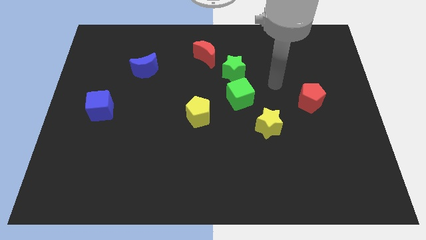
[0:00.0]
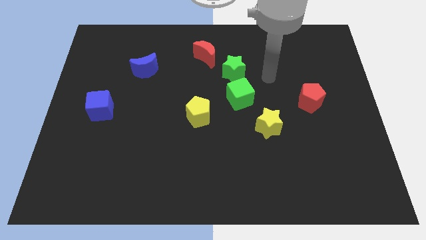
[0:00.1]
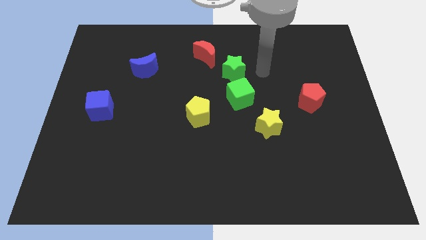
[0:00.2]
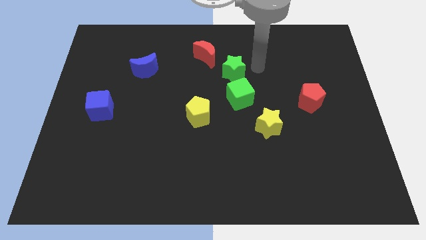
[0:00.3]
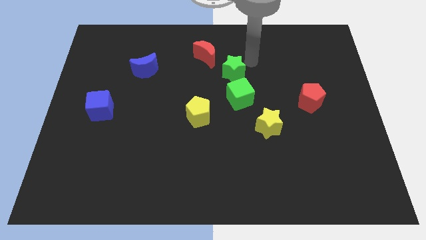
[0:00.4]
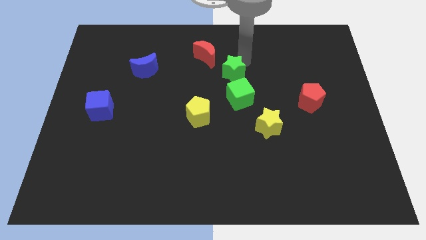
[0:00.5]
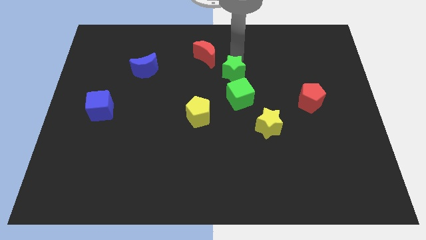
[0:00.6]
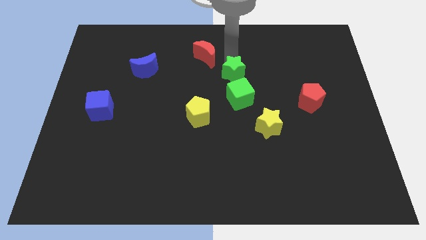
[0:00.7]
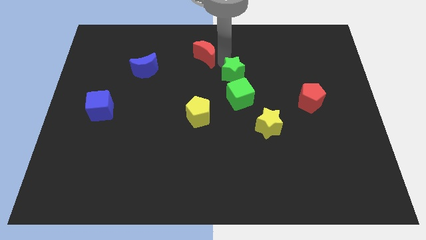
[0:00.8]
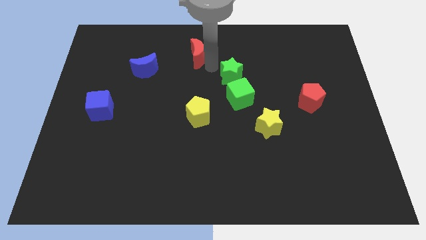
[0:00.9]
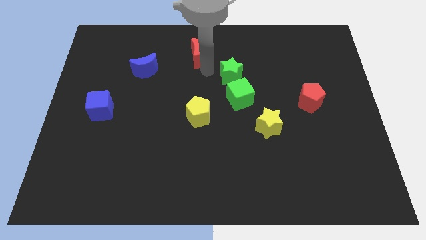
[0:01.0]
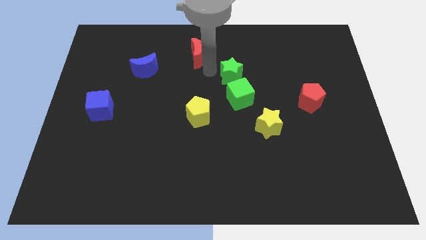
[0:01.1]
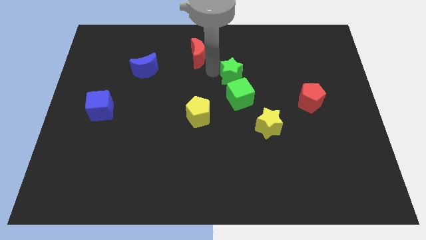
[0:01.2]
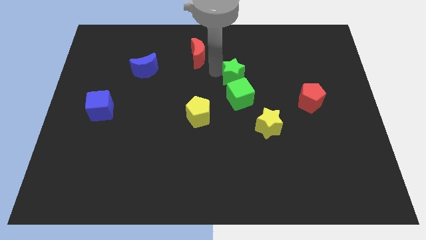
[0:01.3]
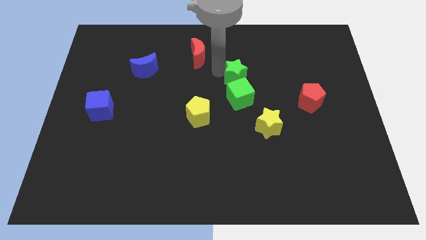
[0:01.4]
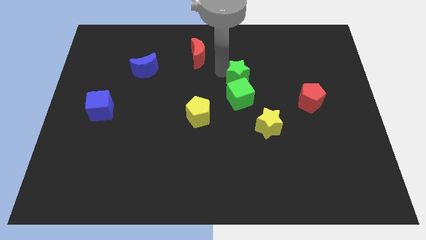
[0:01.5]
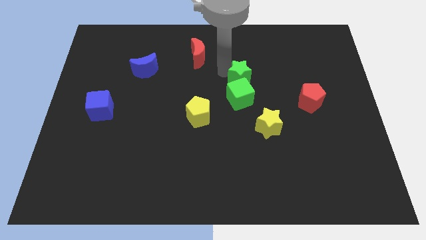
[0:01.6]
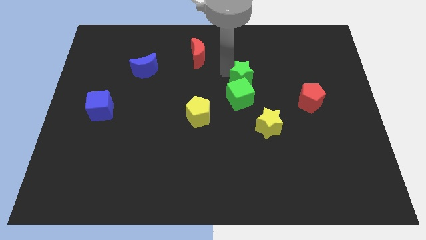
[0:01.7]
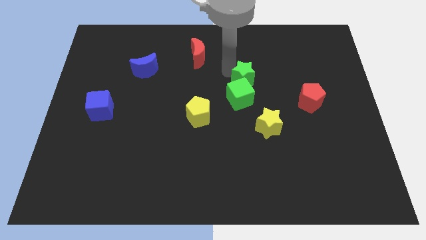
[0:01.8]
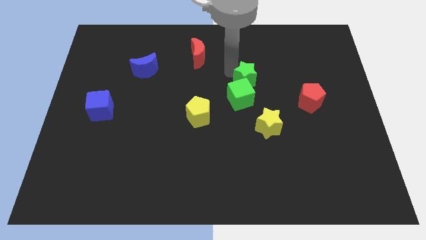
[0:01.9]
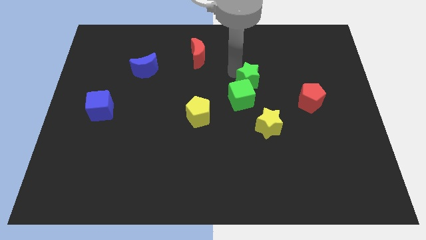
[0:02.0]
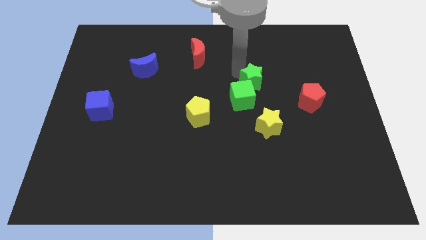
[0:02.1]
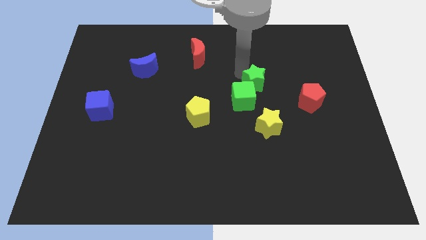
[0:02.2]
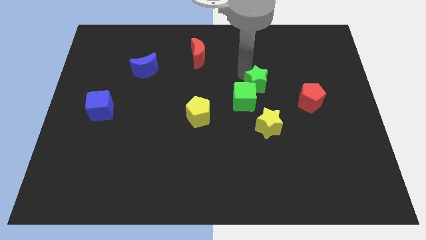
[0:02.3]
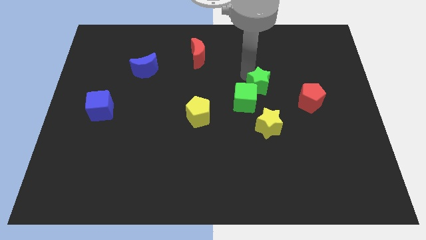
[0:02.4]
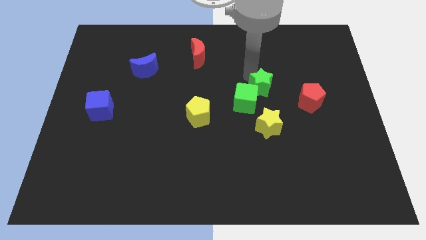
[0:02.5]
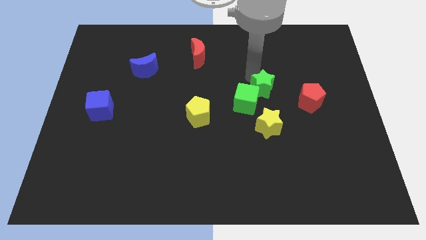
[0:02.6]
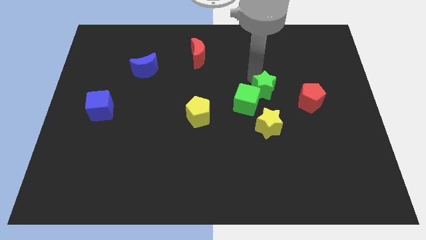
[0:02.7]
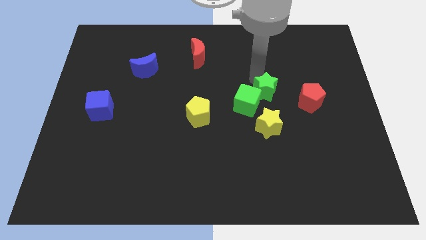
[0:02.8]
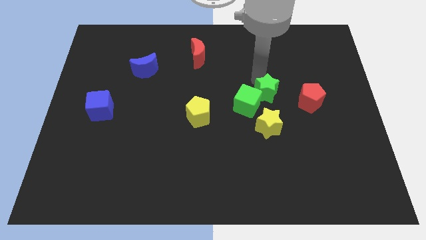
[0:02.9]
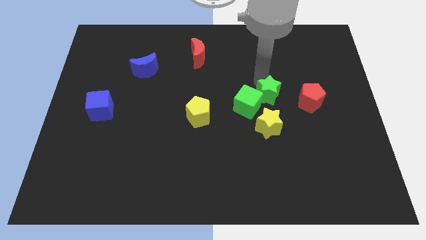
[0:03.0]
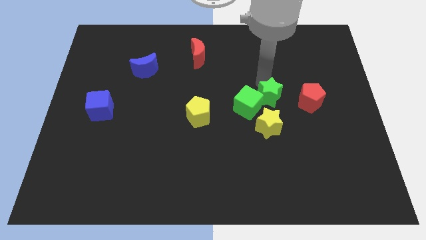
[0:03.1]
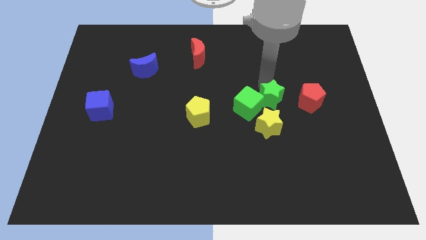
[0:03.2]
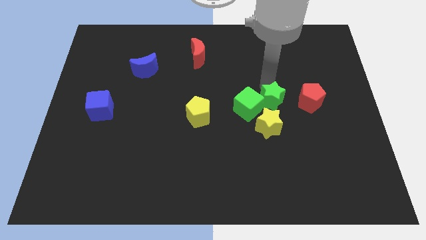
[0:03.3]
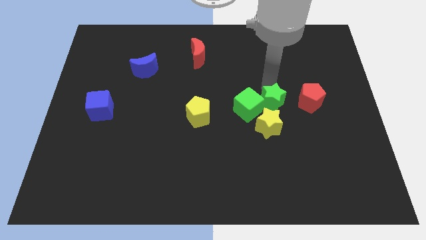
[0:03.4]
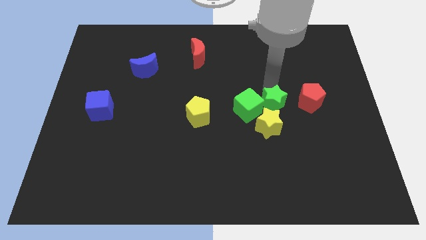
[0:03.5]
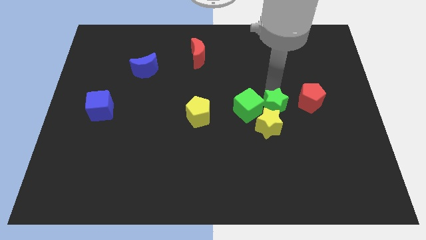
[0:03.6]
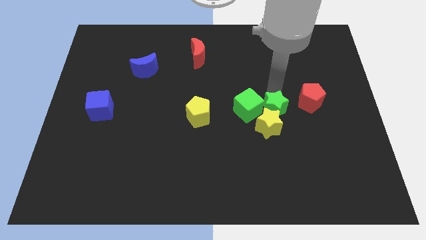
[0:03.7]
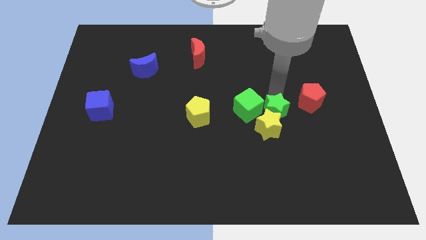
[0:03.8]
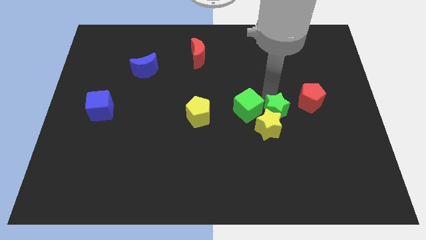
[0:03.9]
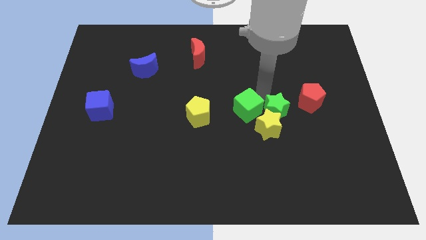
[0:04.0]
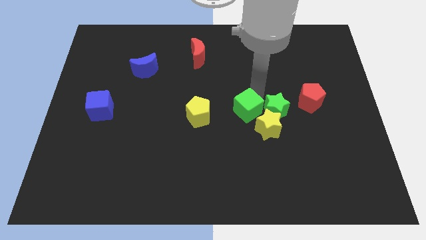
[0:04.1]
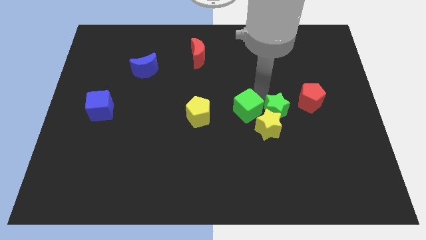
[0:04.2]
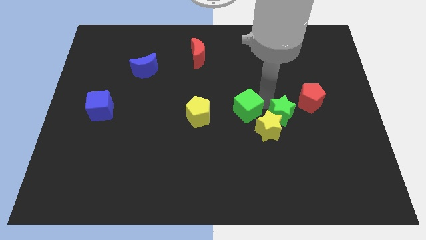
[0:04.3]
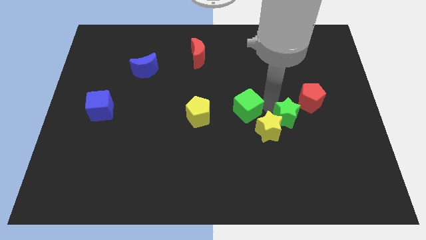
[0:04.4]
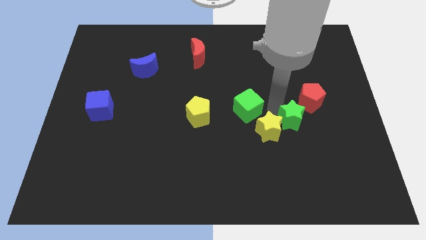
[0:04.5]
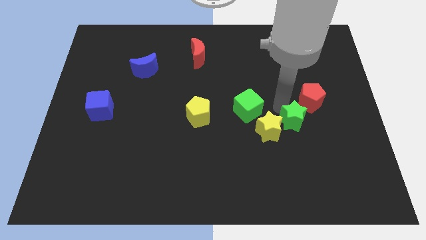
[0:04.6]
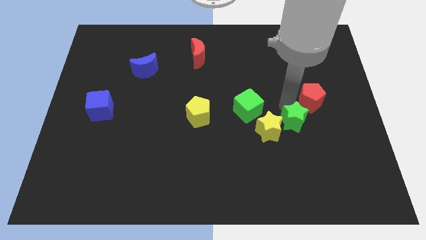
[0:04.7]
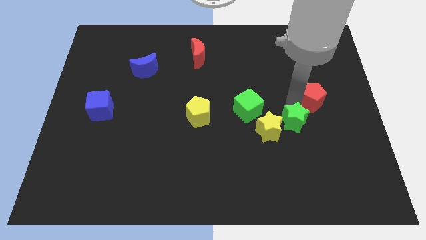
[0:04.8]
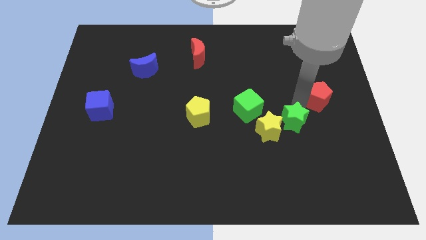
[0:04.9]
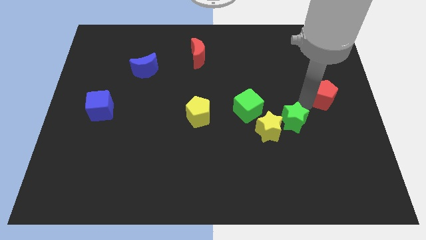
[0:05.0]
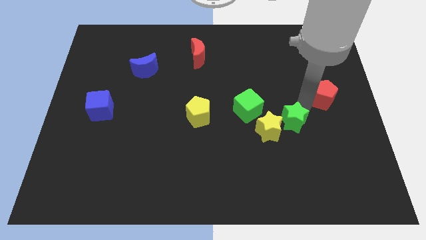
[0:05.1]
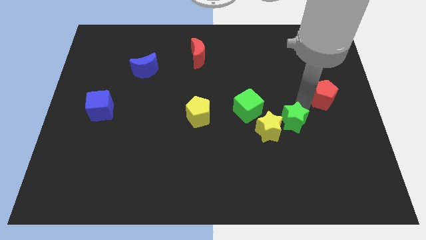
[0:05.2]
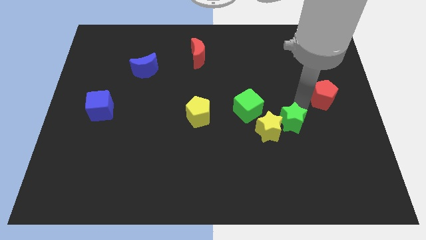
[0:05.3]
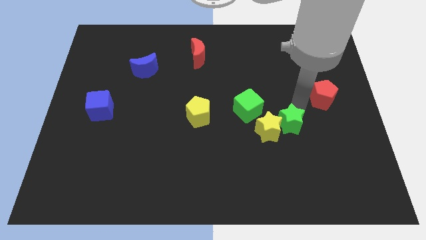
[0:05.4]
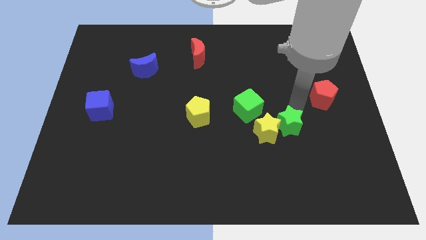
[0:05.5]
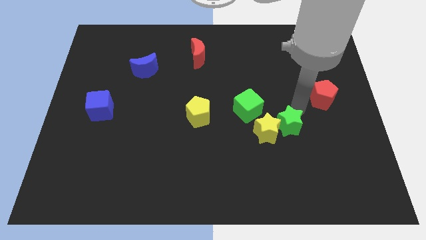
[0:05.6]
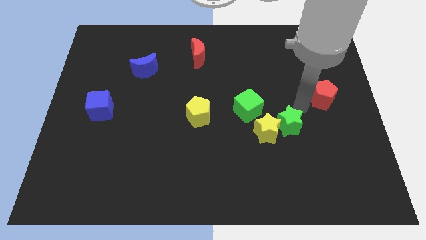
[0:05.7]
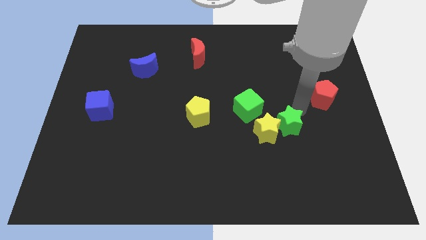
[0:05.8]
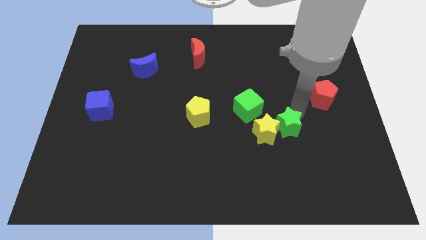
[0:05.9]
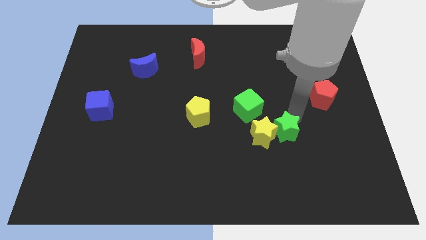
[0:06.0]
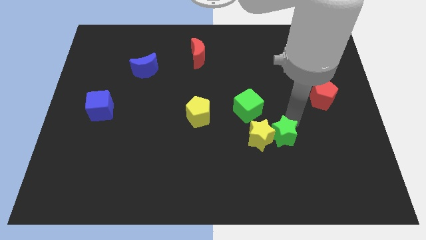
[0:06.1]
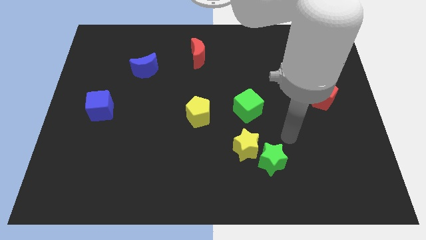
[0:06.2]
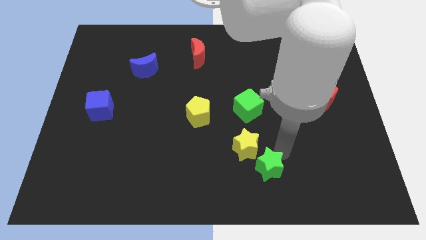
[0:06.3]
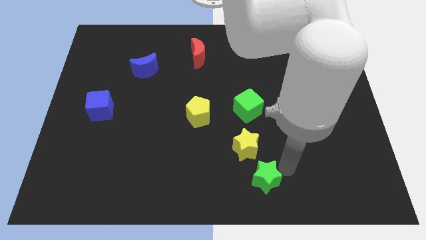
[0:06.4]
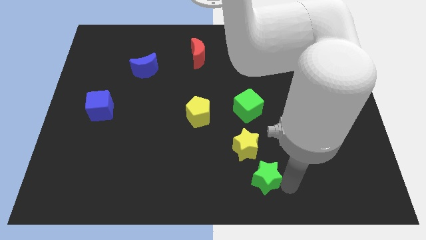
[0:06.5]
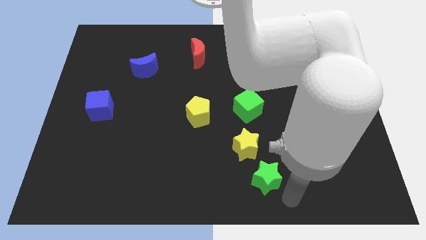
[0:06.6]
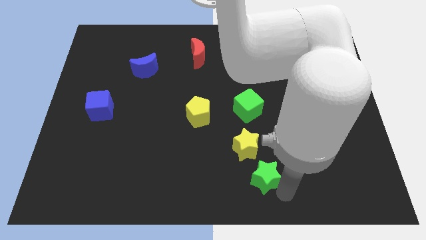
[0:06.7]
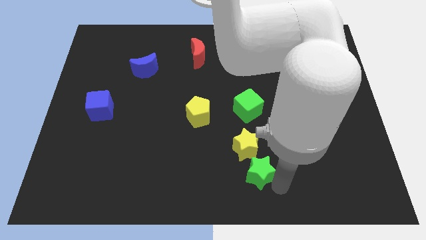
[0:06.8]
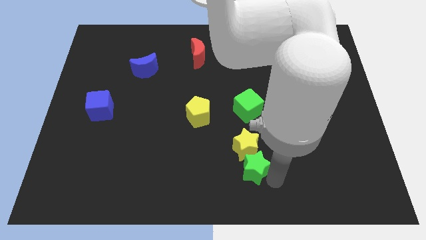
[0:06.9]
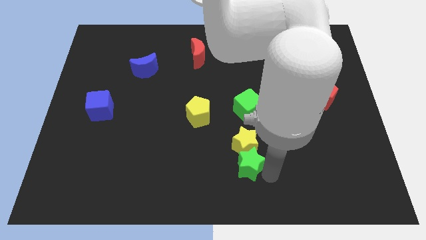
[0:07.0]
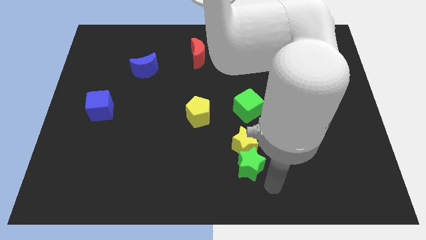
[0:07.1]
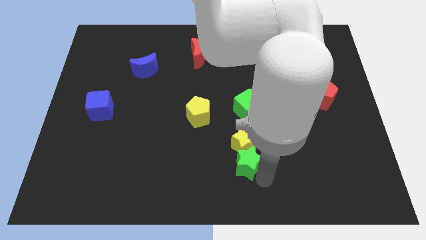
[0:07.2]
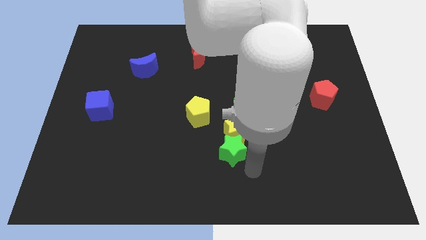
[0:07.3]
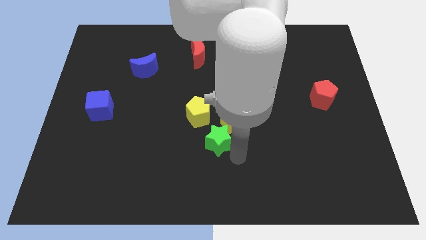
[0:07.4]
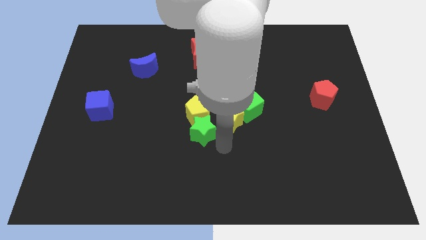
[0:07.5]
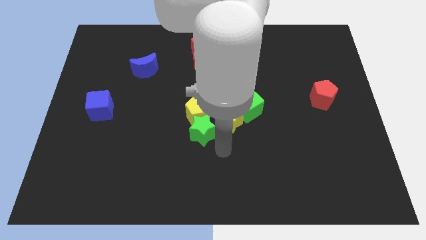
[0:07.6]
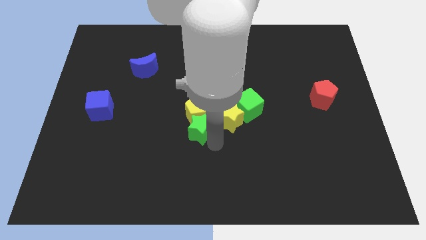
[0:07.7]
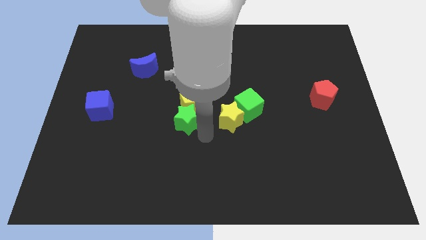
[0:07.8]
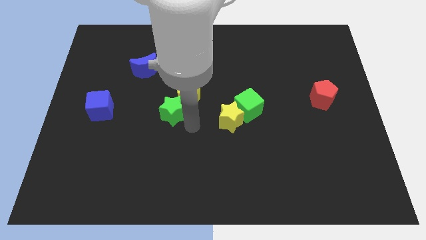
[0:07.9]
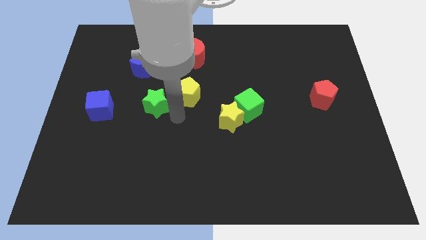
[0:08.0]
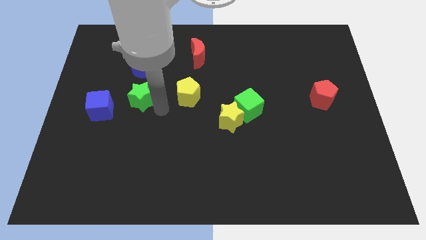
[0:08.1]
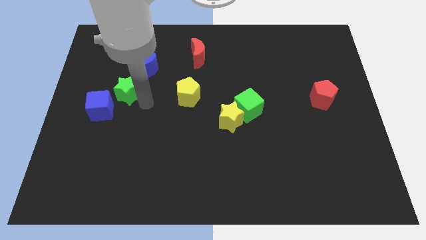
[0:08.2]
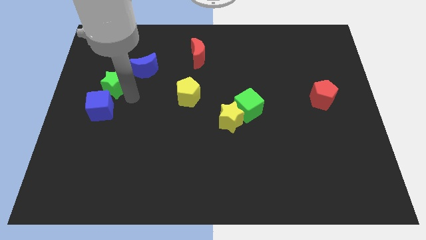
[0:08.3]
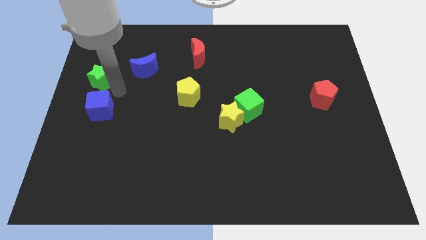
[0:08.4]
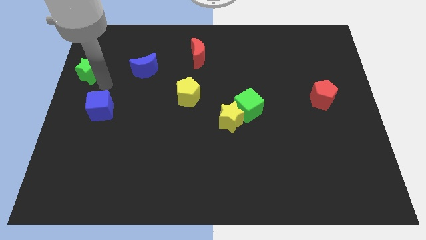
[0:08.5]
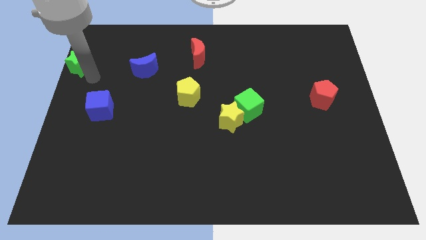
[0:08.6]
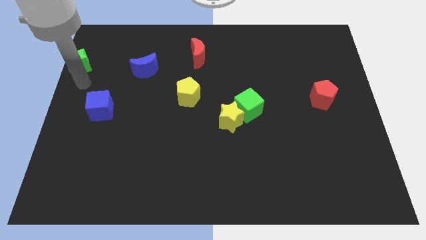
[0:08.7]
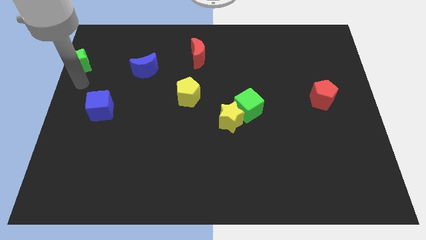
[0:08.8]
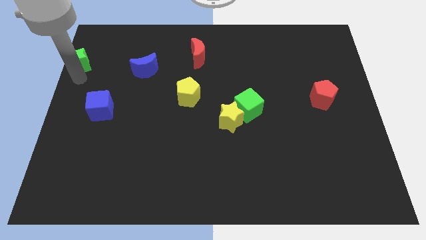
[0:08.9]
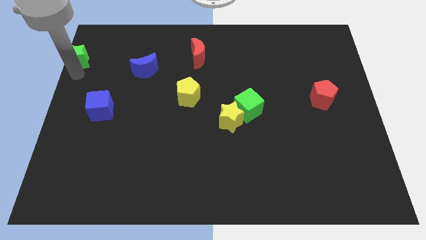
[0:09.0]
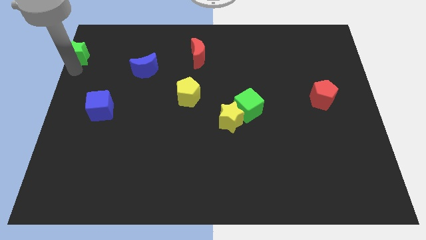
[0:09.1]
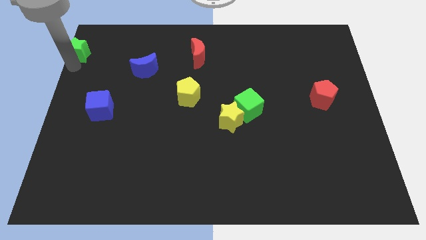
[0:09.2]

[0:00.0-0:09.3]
put the green star to the top left corner
